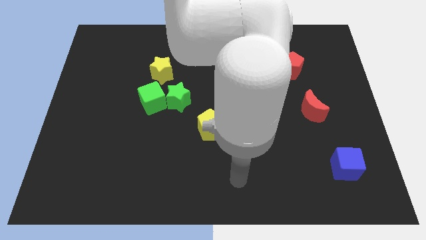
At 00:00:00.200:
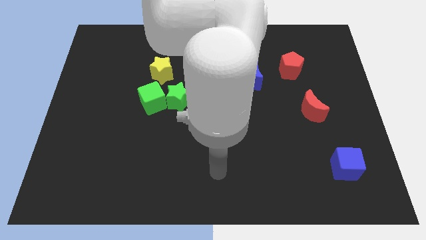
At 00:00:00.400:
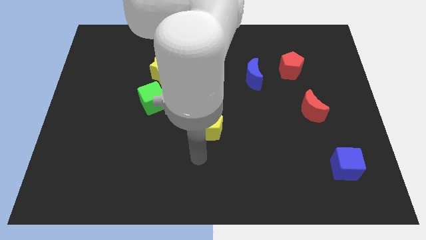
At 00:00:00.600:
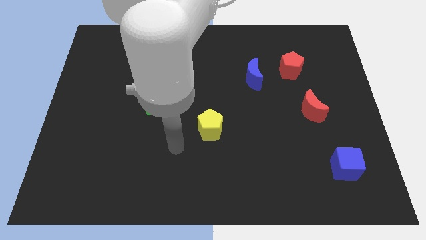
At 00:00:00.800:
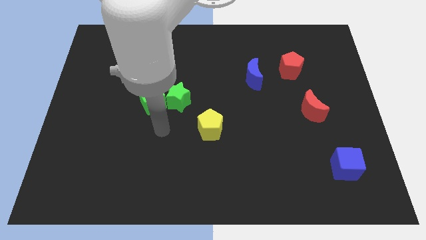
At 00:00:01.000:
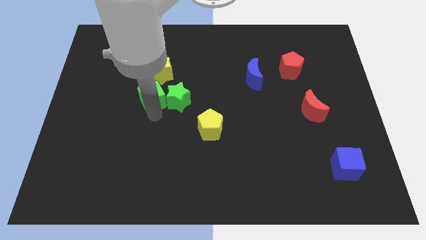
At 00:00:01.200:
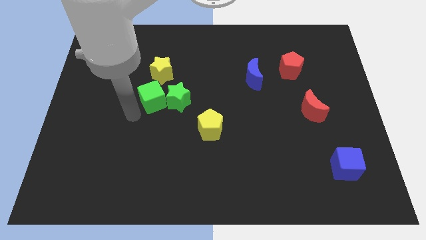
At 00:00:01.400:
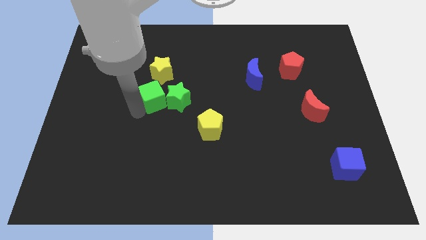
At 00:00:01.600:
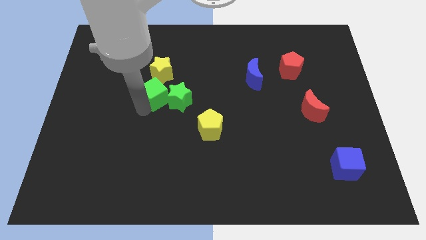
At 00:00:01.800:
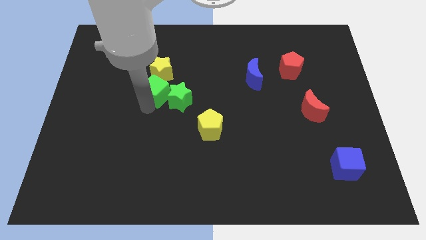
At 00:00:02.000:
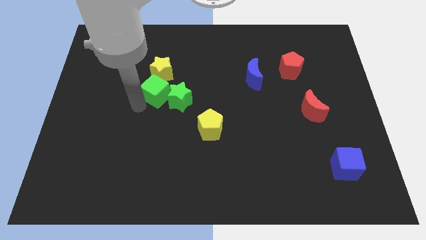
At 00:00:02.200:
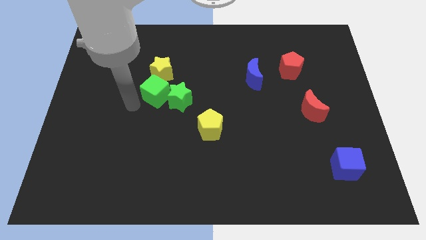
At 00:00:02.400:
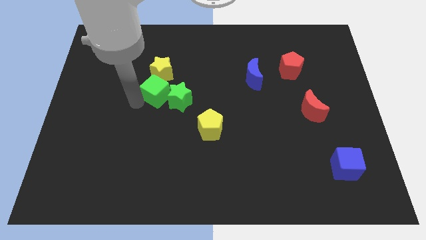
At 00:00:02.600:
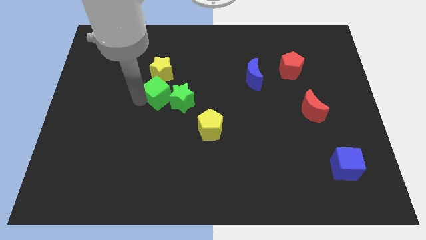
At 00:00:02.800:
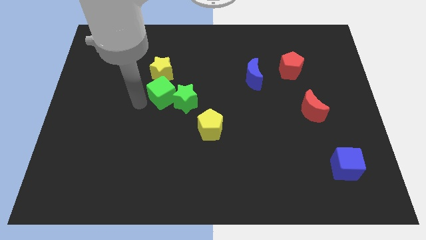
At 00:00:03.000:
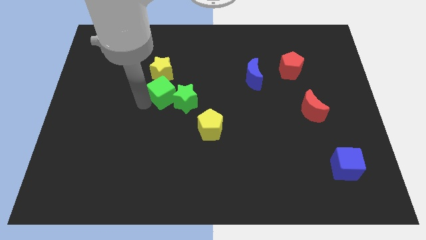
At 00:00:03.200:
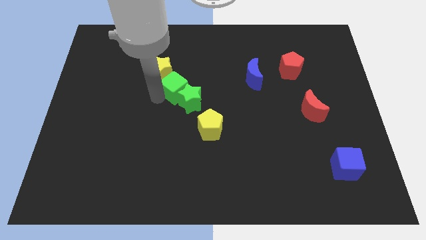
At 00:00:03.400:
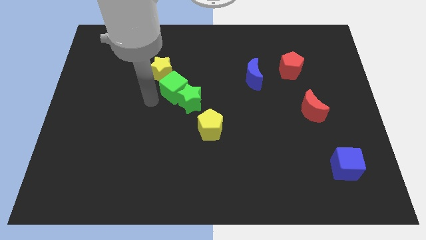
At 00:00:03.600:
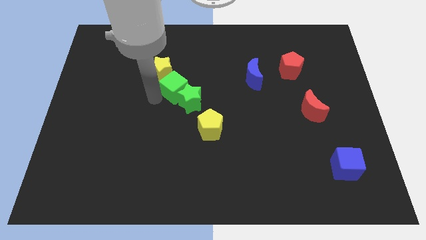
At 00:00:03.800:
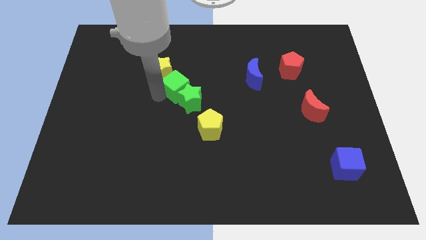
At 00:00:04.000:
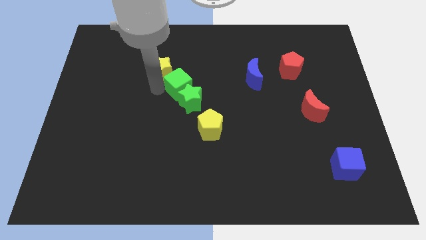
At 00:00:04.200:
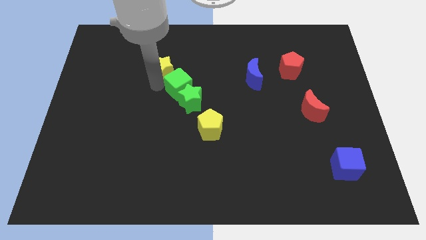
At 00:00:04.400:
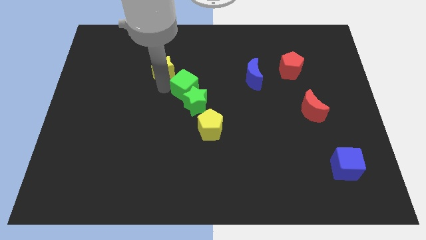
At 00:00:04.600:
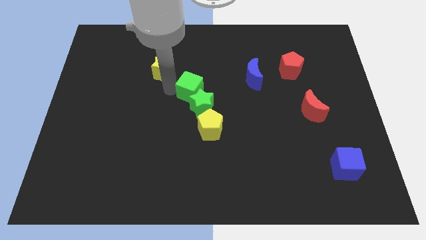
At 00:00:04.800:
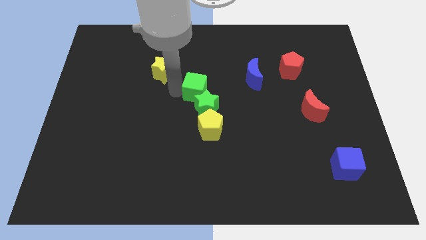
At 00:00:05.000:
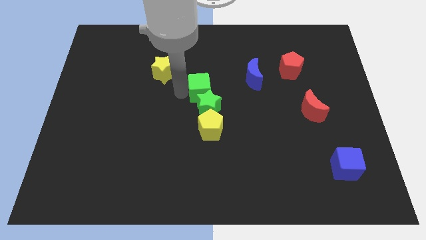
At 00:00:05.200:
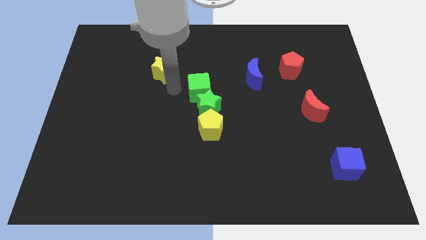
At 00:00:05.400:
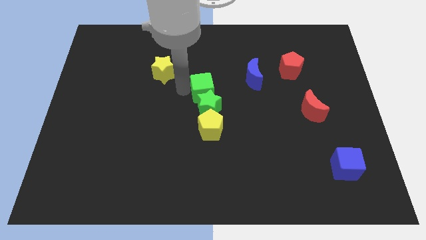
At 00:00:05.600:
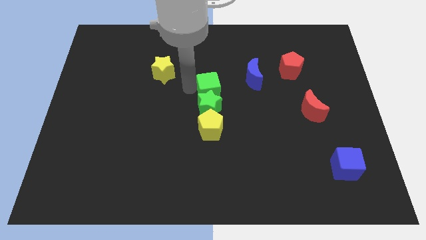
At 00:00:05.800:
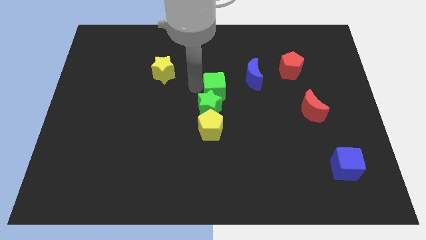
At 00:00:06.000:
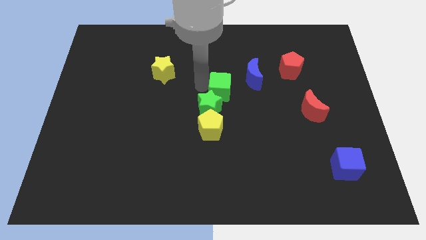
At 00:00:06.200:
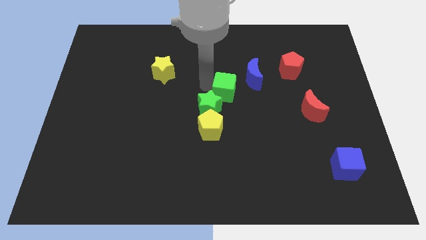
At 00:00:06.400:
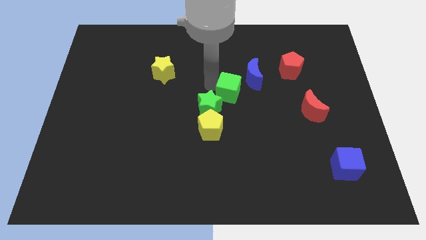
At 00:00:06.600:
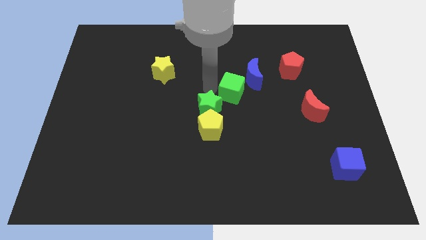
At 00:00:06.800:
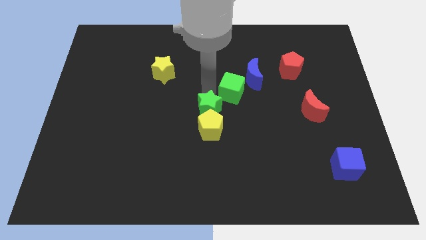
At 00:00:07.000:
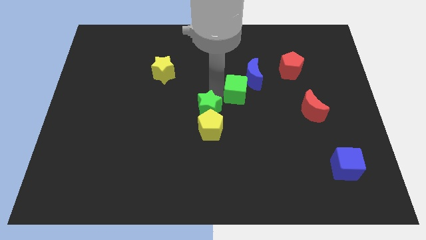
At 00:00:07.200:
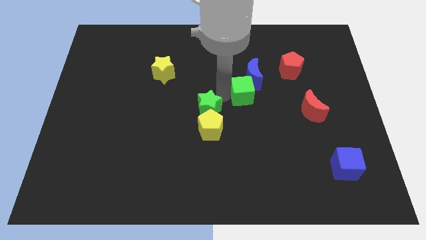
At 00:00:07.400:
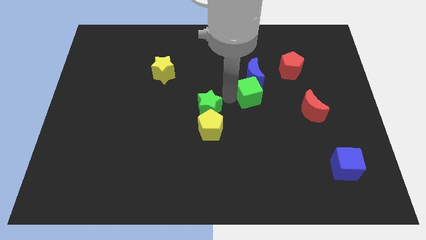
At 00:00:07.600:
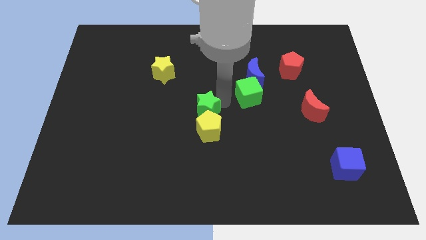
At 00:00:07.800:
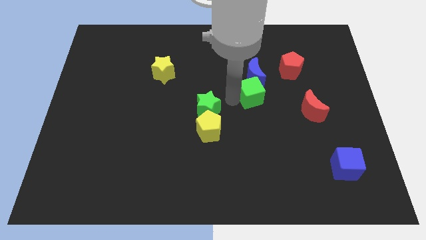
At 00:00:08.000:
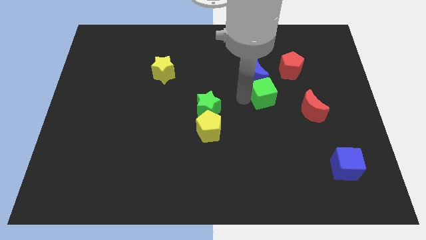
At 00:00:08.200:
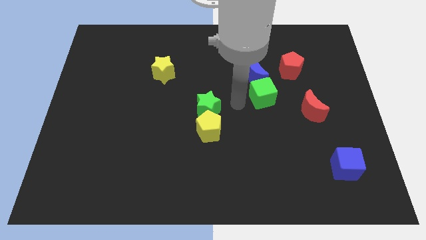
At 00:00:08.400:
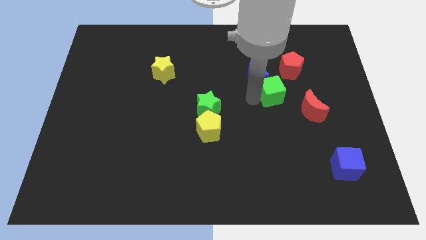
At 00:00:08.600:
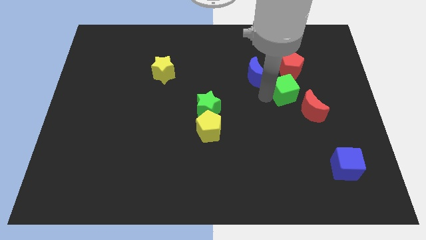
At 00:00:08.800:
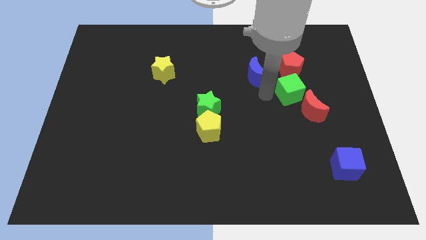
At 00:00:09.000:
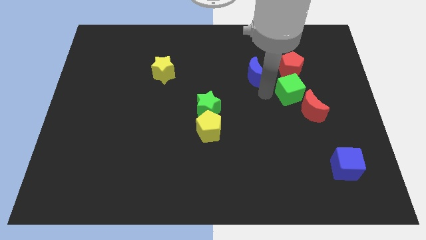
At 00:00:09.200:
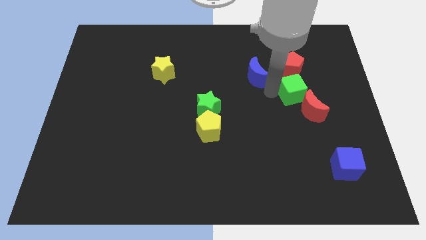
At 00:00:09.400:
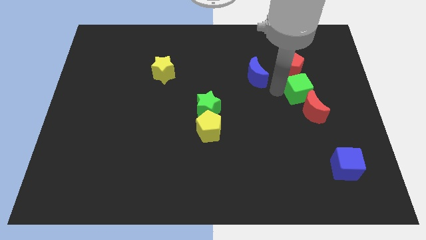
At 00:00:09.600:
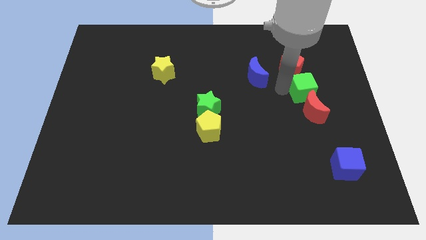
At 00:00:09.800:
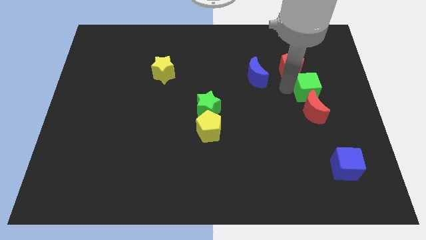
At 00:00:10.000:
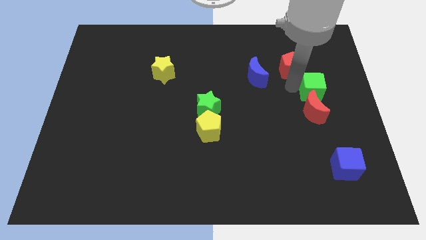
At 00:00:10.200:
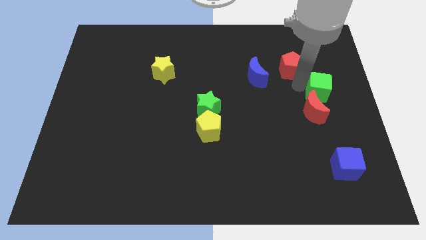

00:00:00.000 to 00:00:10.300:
push the green cube to the right side of the board

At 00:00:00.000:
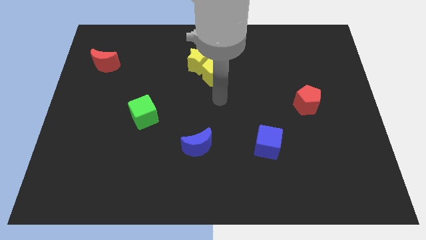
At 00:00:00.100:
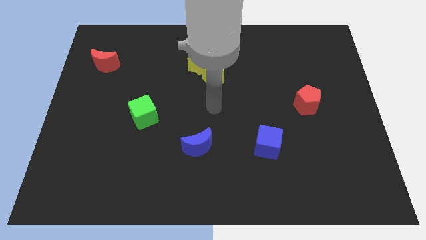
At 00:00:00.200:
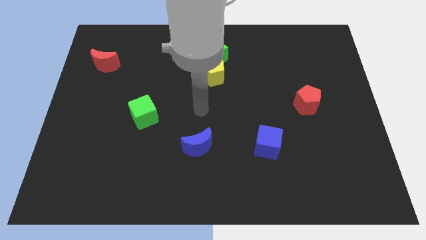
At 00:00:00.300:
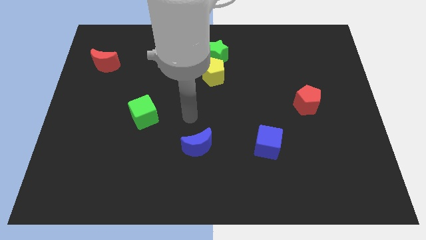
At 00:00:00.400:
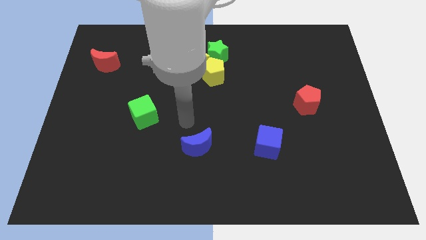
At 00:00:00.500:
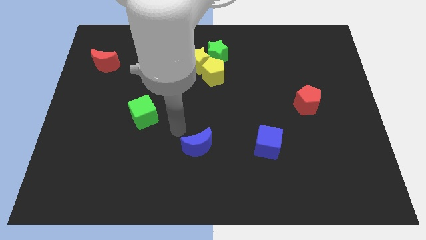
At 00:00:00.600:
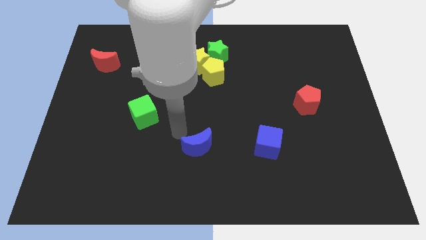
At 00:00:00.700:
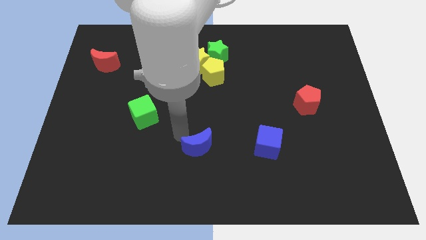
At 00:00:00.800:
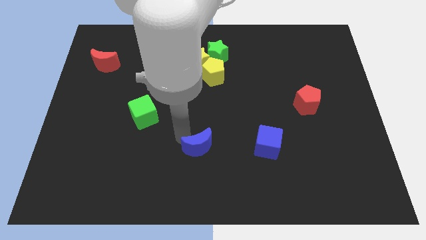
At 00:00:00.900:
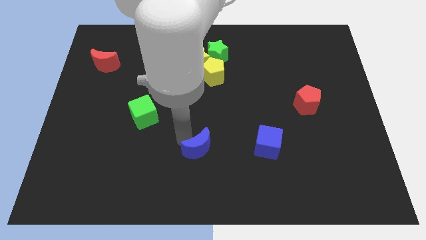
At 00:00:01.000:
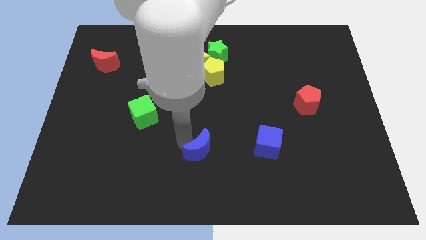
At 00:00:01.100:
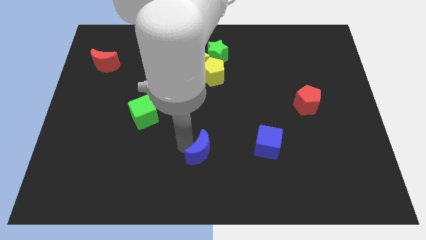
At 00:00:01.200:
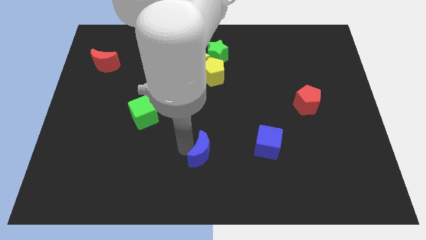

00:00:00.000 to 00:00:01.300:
move the blue moon to the bottom
